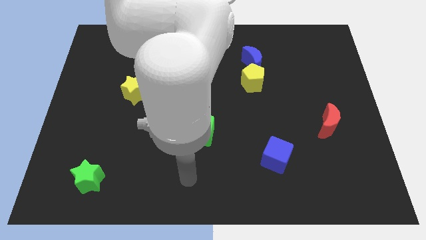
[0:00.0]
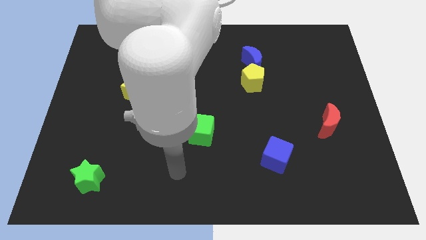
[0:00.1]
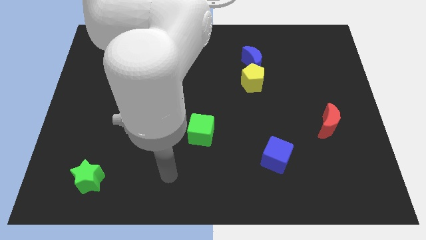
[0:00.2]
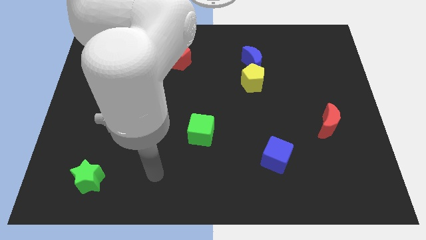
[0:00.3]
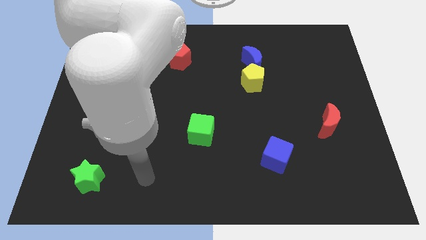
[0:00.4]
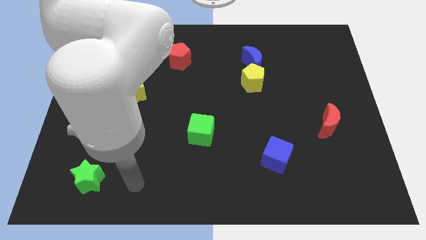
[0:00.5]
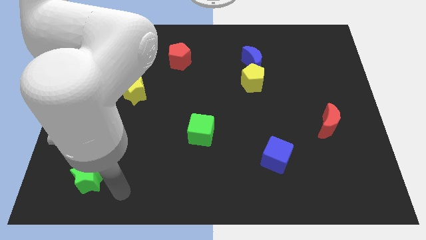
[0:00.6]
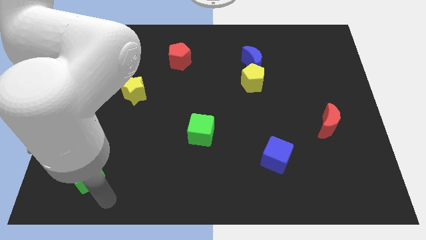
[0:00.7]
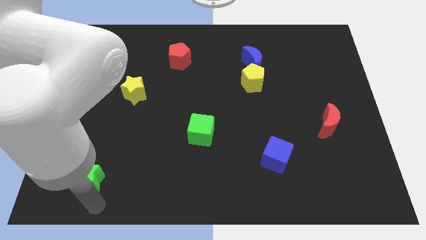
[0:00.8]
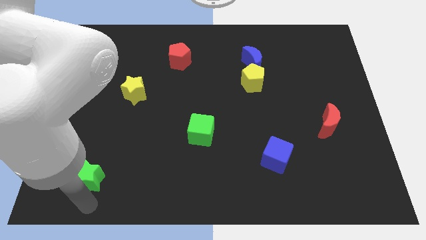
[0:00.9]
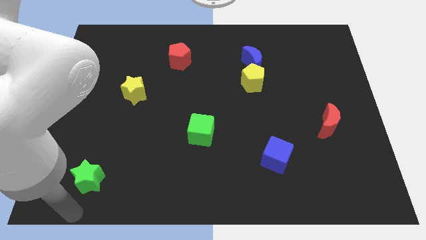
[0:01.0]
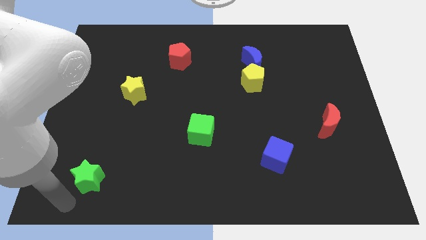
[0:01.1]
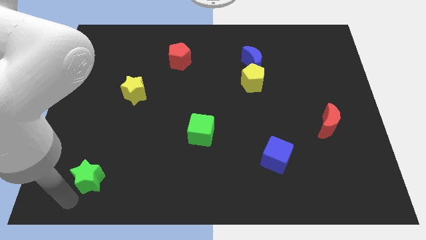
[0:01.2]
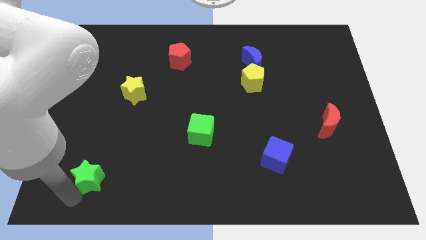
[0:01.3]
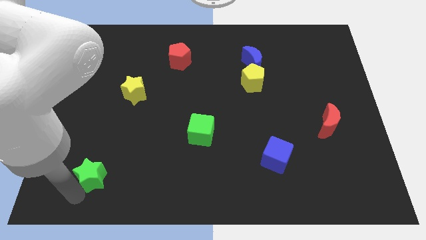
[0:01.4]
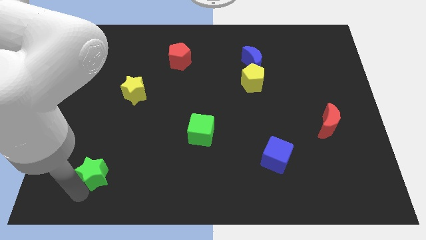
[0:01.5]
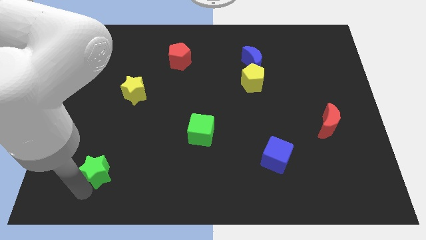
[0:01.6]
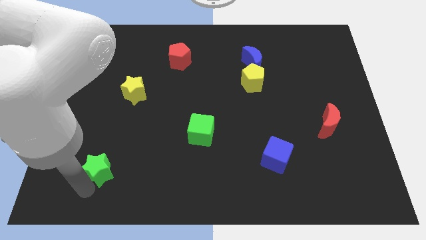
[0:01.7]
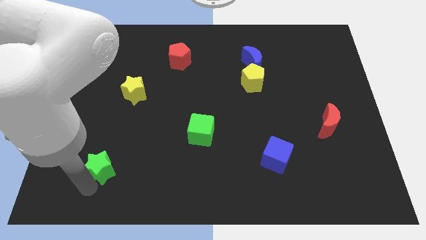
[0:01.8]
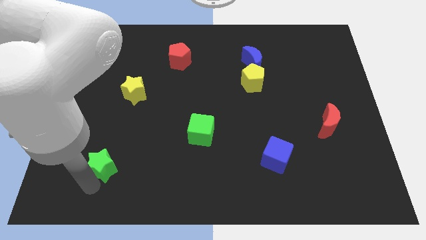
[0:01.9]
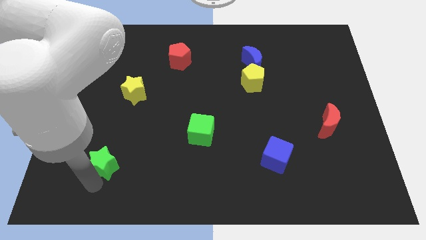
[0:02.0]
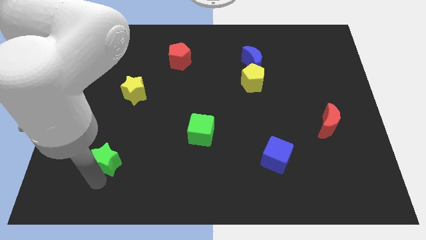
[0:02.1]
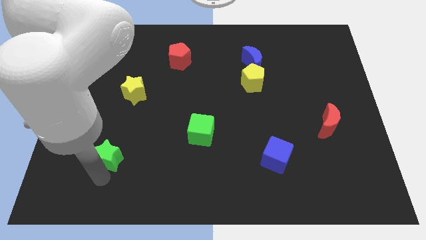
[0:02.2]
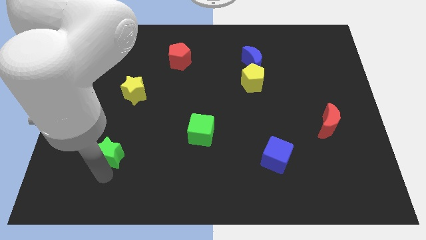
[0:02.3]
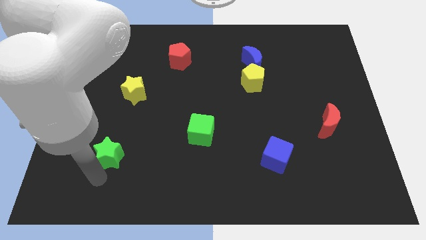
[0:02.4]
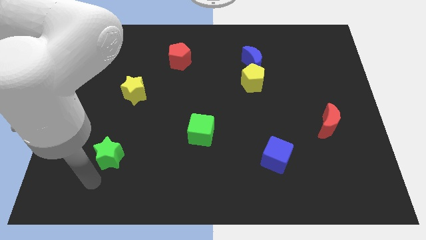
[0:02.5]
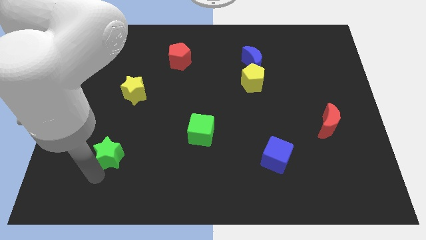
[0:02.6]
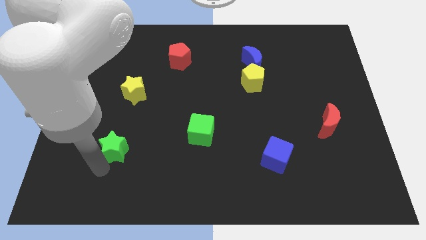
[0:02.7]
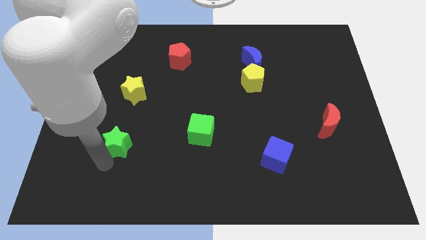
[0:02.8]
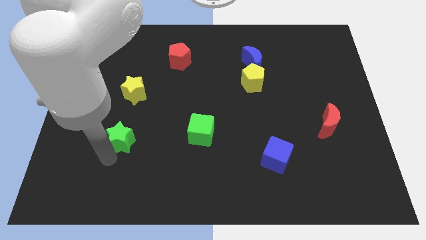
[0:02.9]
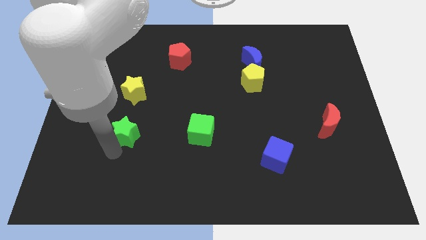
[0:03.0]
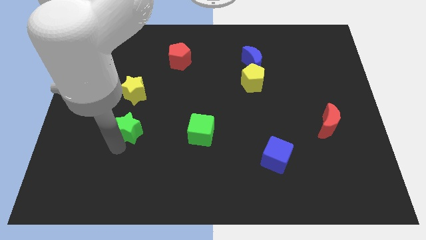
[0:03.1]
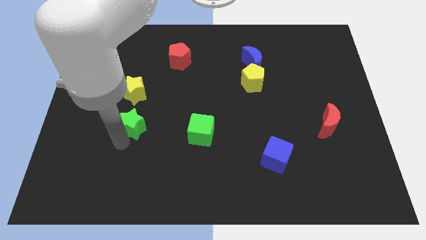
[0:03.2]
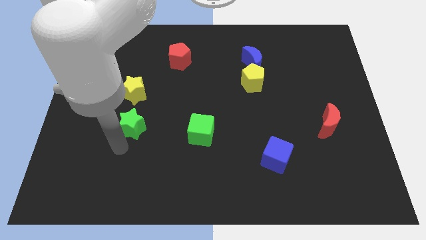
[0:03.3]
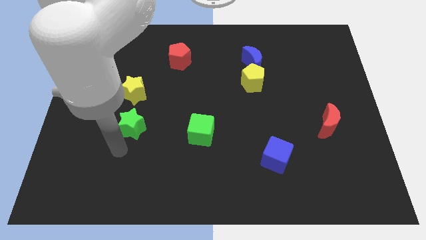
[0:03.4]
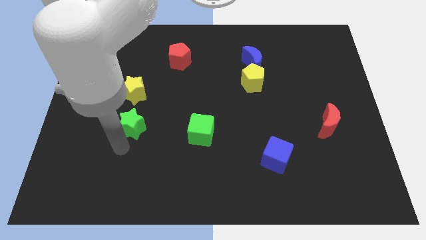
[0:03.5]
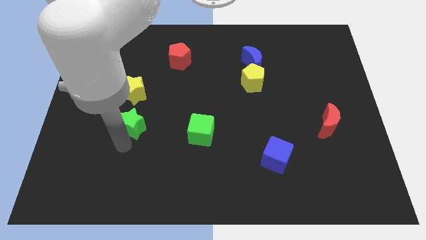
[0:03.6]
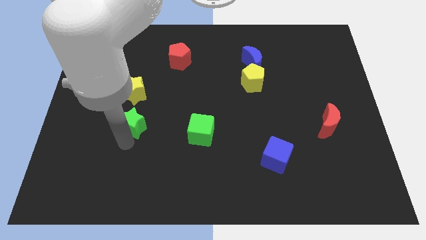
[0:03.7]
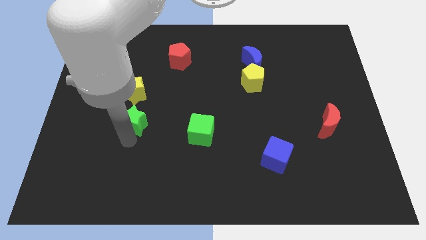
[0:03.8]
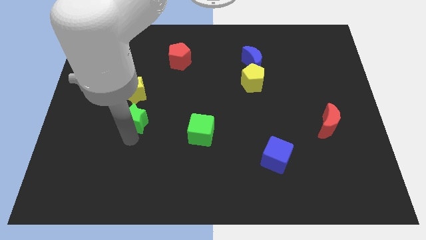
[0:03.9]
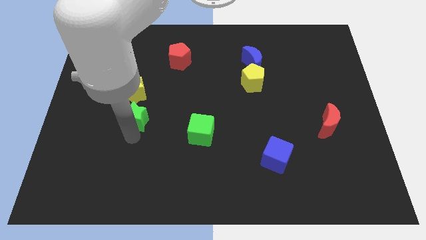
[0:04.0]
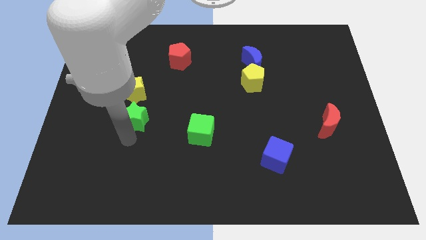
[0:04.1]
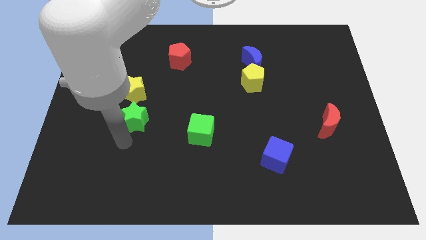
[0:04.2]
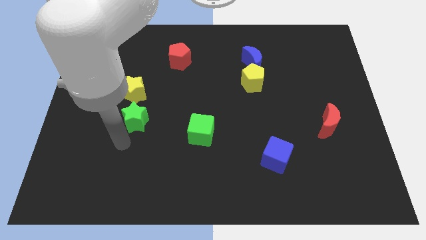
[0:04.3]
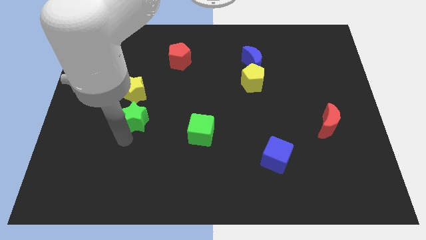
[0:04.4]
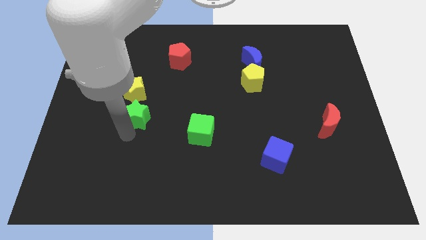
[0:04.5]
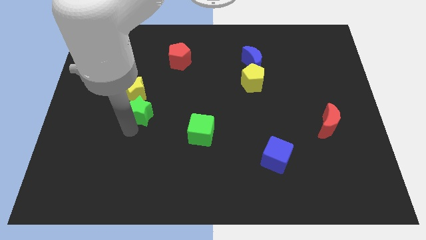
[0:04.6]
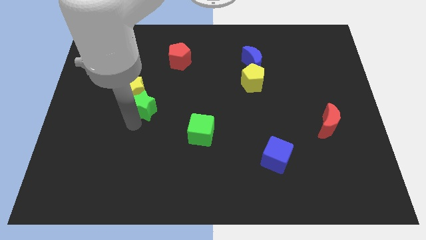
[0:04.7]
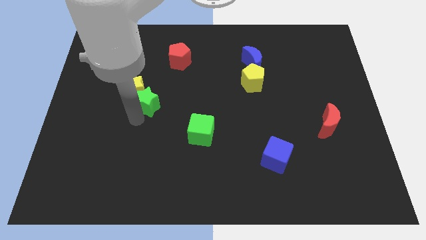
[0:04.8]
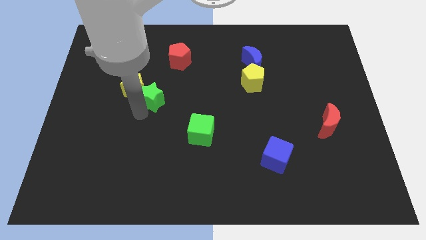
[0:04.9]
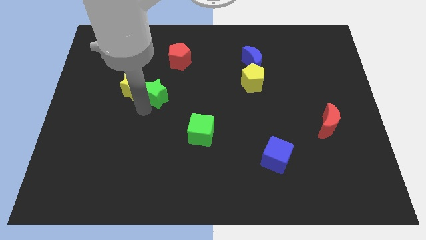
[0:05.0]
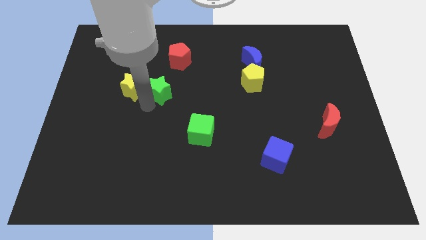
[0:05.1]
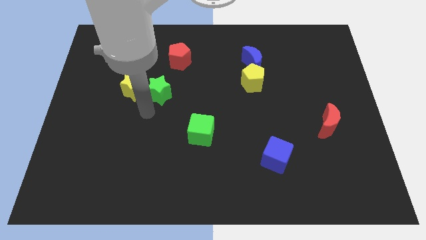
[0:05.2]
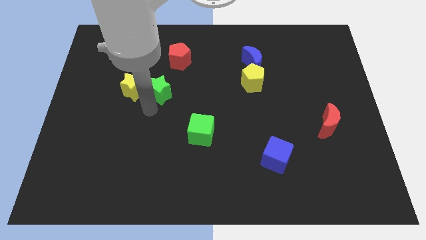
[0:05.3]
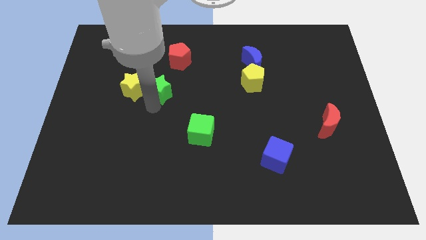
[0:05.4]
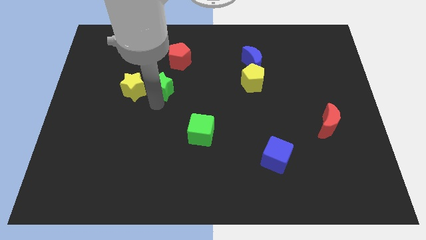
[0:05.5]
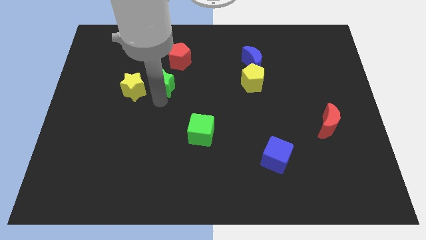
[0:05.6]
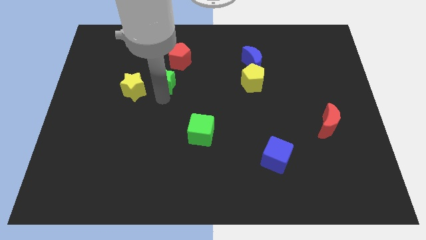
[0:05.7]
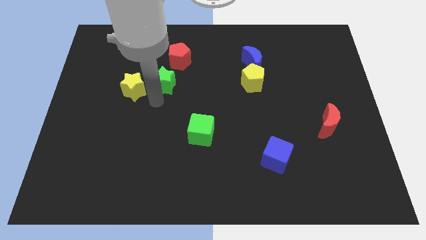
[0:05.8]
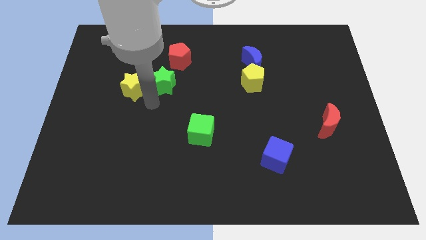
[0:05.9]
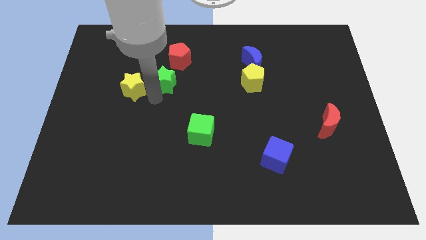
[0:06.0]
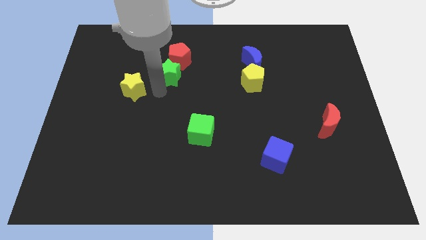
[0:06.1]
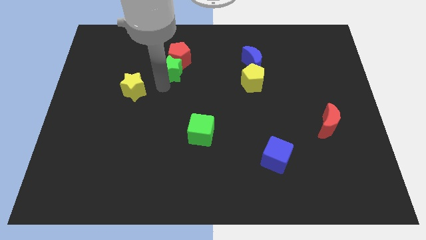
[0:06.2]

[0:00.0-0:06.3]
slide the green star towards the red pentagon

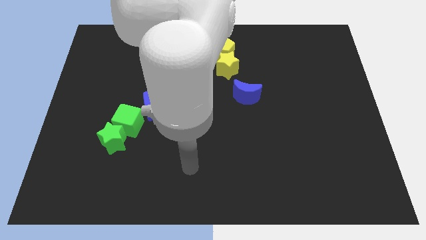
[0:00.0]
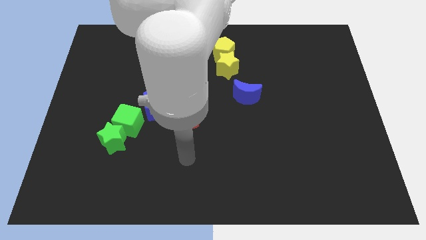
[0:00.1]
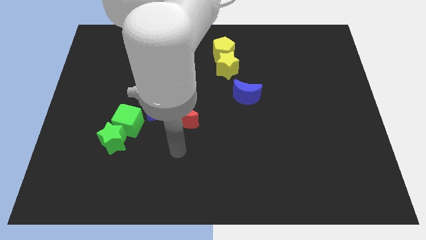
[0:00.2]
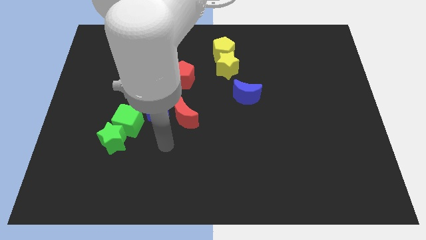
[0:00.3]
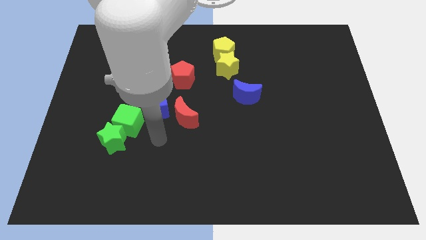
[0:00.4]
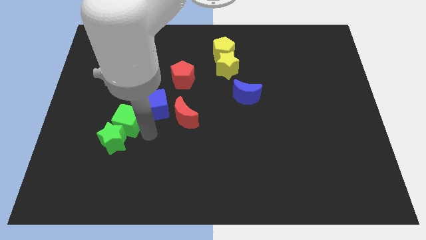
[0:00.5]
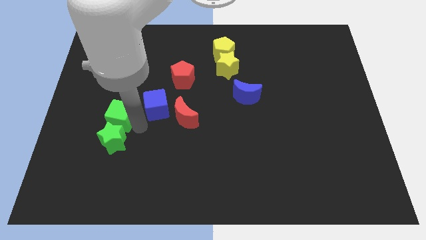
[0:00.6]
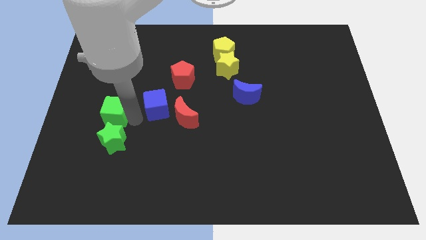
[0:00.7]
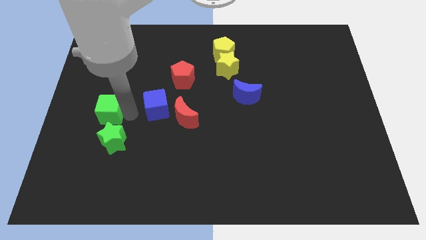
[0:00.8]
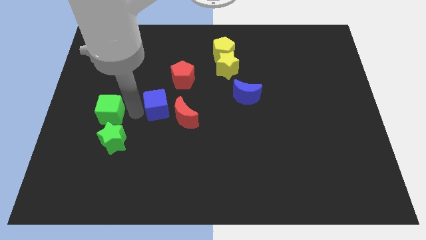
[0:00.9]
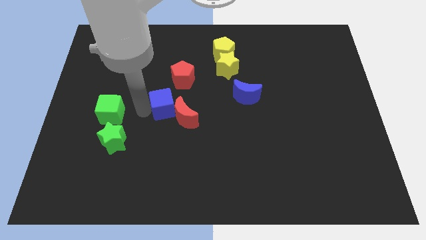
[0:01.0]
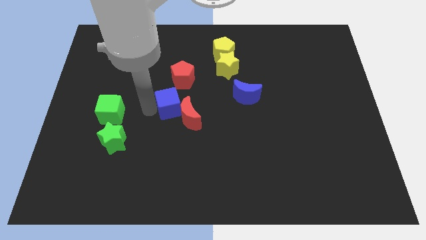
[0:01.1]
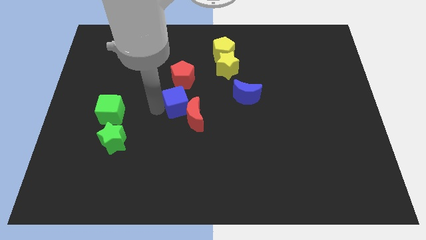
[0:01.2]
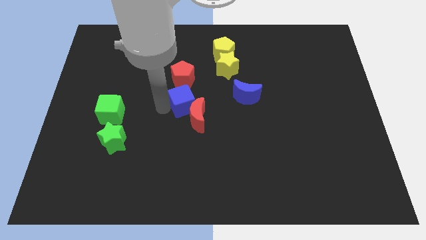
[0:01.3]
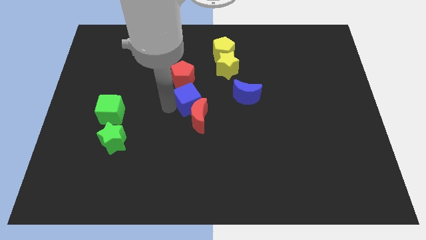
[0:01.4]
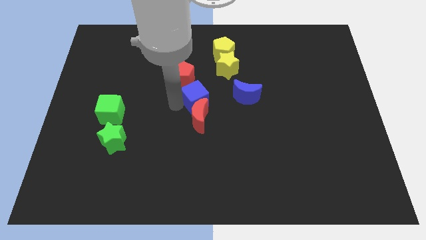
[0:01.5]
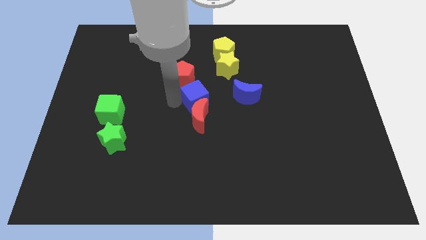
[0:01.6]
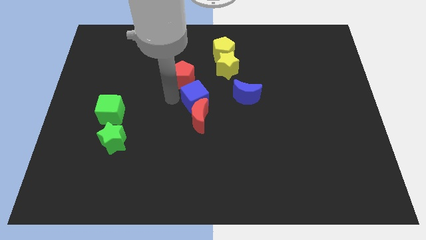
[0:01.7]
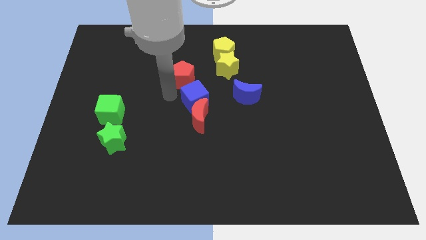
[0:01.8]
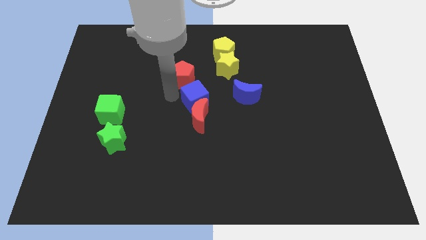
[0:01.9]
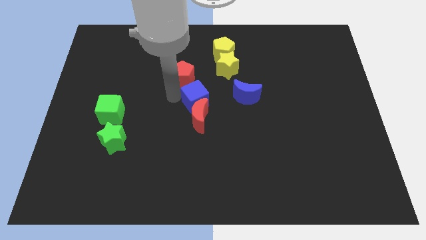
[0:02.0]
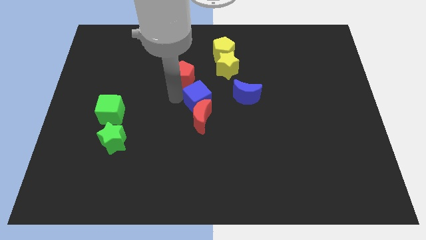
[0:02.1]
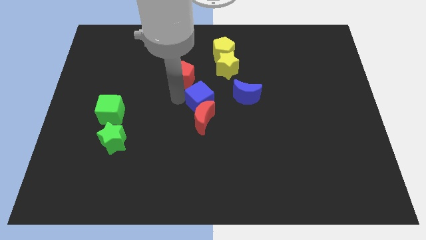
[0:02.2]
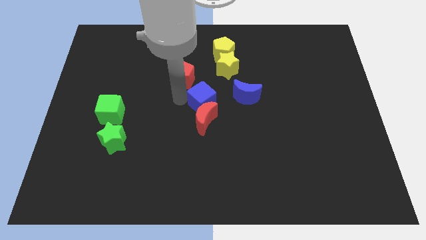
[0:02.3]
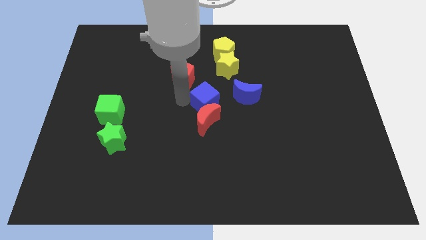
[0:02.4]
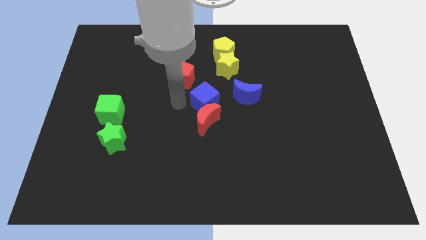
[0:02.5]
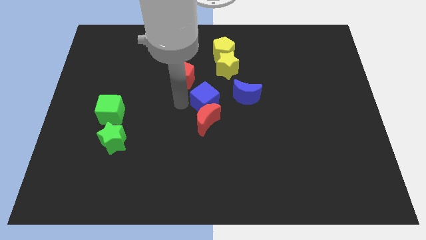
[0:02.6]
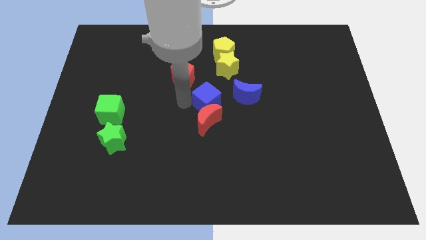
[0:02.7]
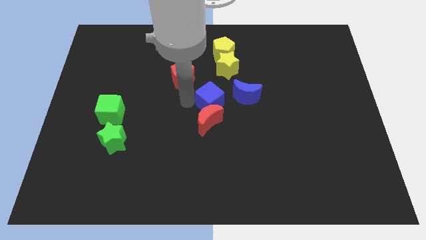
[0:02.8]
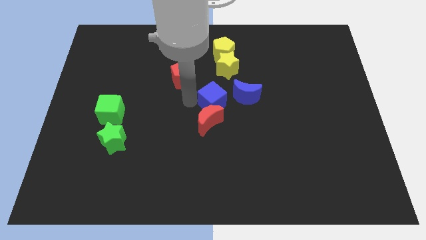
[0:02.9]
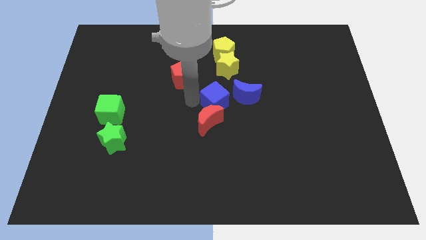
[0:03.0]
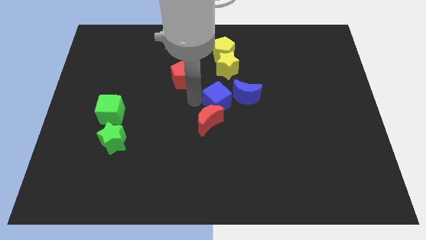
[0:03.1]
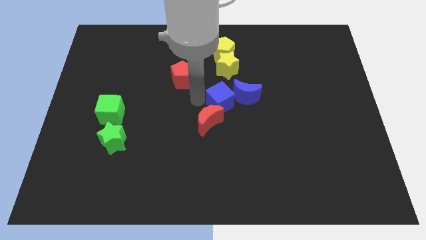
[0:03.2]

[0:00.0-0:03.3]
push the blue cube to the blue moon
